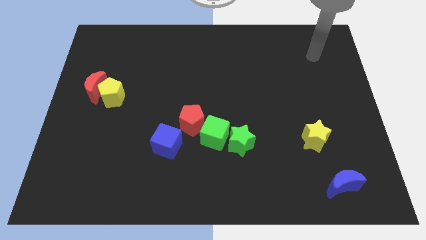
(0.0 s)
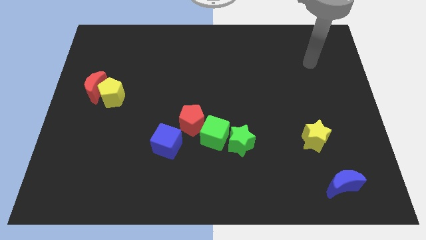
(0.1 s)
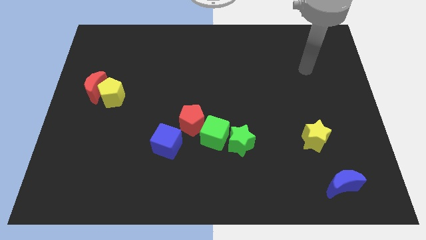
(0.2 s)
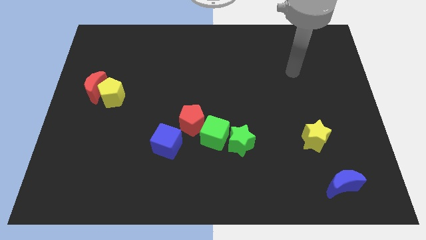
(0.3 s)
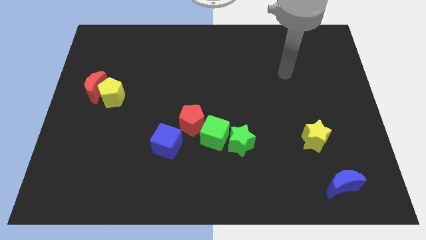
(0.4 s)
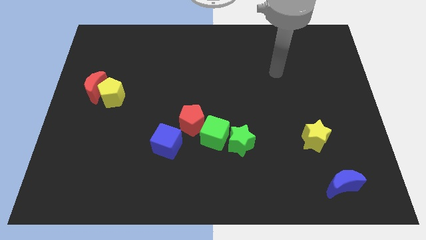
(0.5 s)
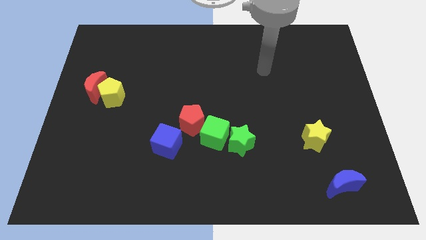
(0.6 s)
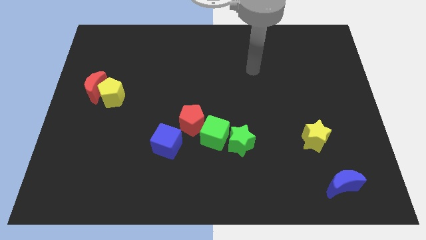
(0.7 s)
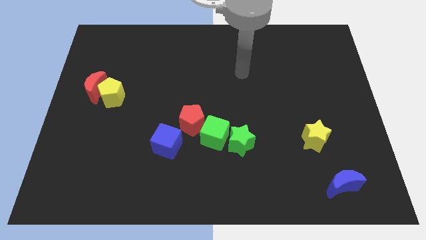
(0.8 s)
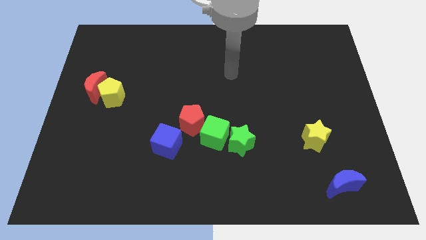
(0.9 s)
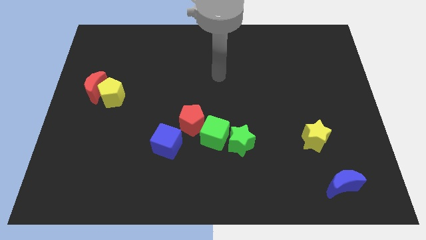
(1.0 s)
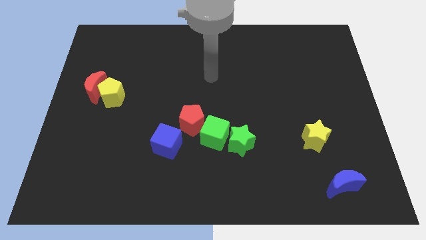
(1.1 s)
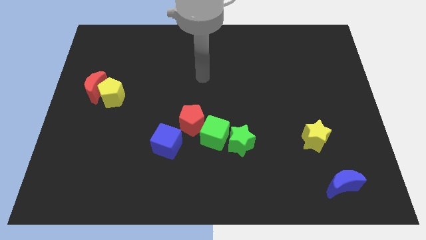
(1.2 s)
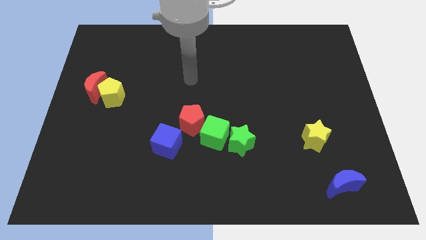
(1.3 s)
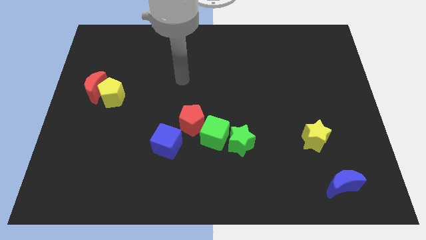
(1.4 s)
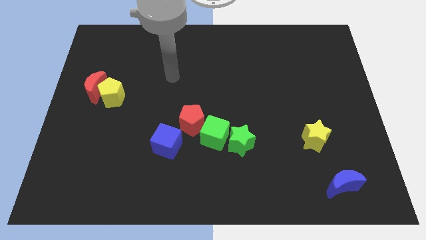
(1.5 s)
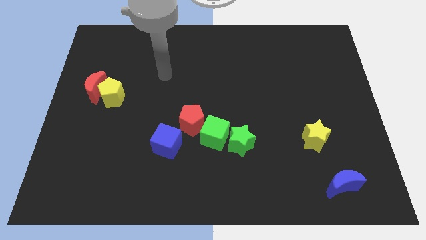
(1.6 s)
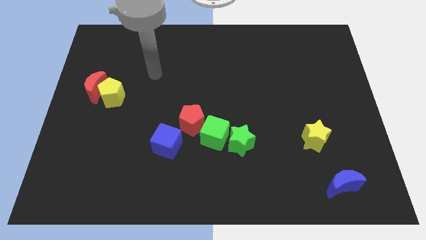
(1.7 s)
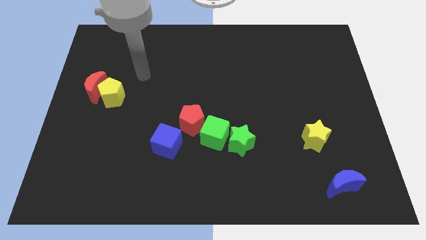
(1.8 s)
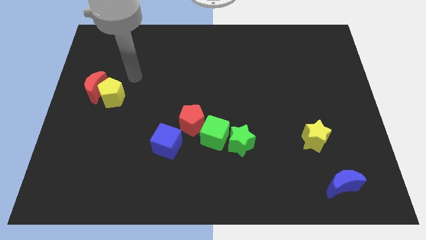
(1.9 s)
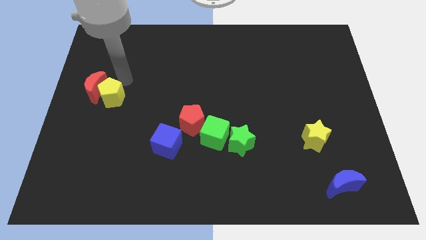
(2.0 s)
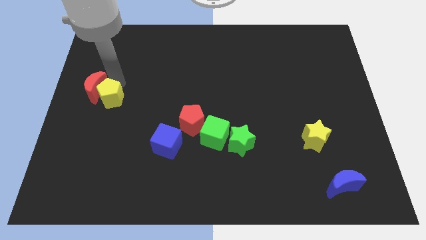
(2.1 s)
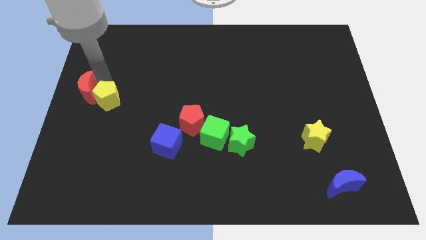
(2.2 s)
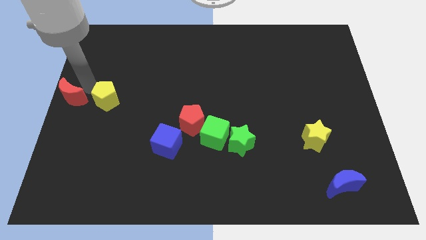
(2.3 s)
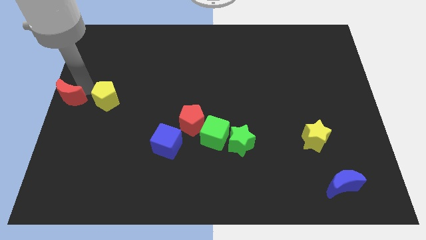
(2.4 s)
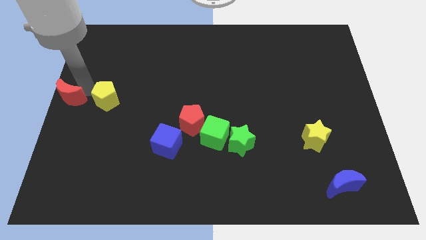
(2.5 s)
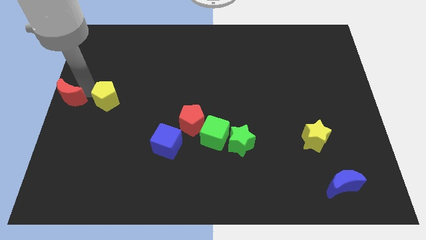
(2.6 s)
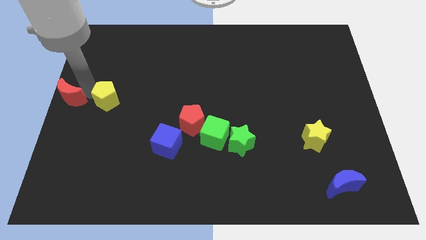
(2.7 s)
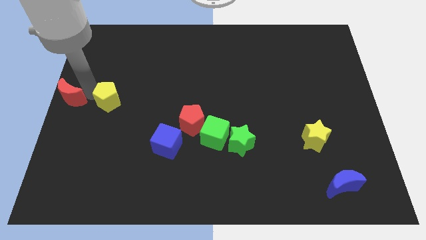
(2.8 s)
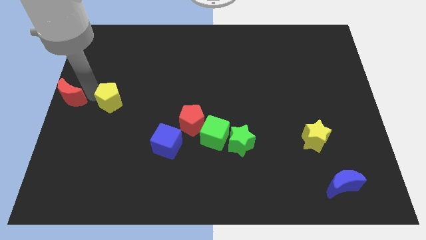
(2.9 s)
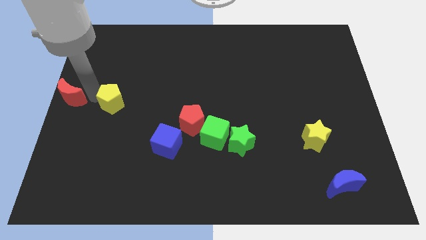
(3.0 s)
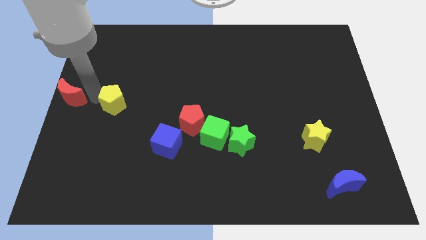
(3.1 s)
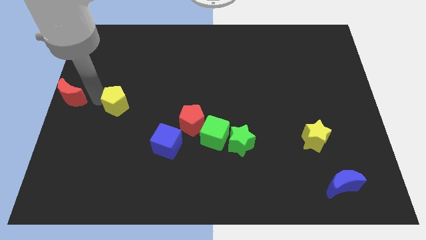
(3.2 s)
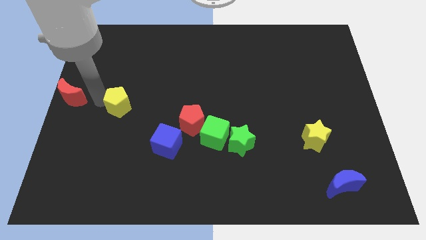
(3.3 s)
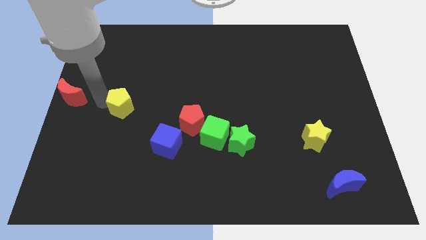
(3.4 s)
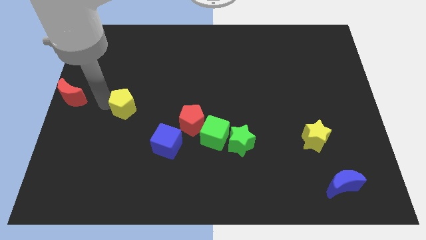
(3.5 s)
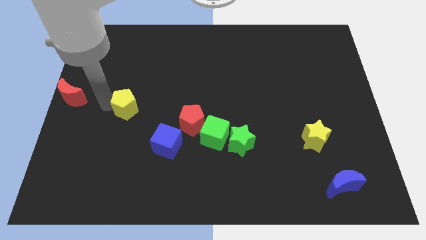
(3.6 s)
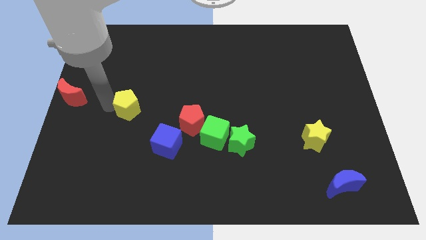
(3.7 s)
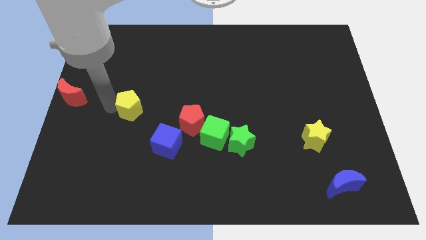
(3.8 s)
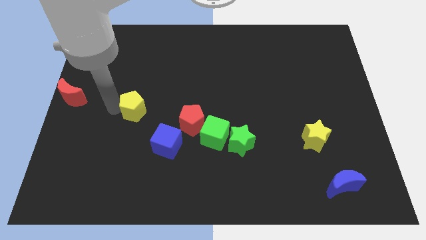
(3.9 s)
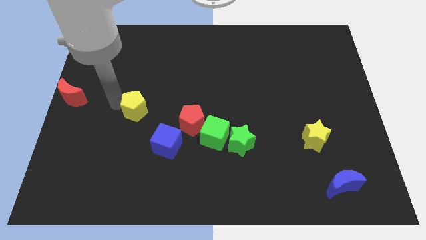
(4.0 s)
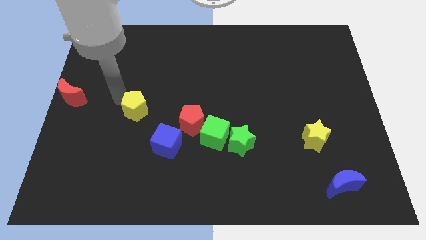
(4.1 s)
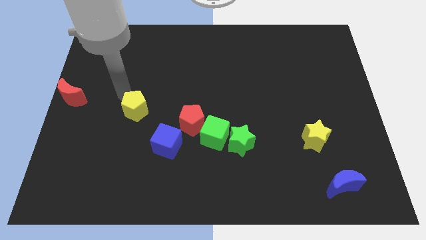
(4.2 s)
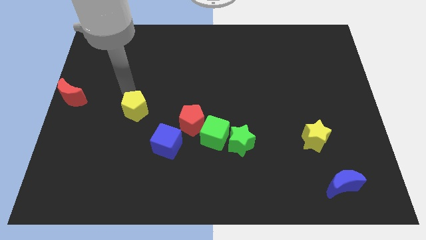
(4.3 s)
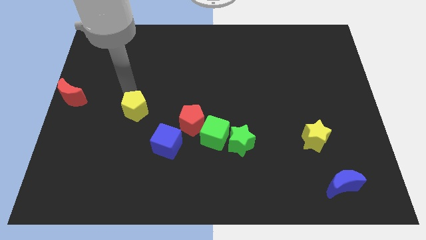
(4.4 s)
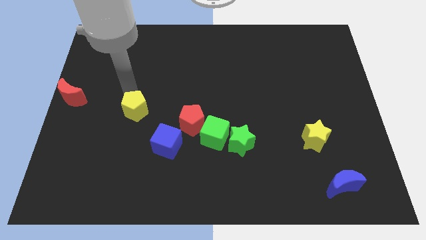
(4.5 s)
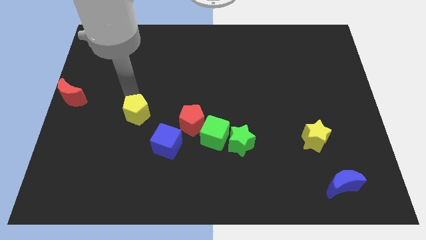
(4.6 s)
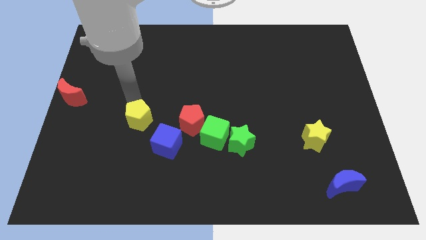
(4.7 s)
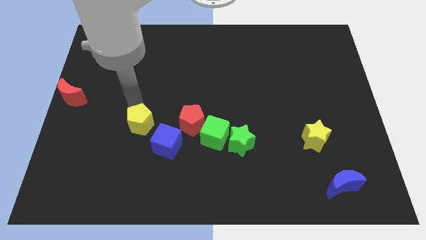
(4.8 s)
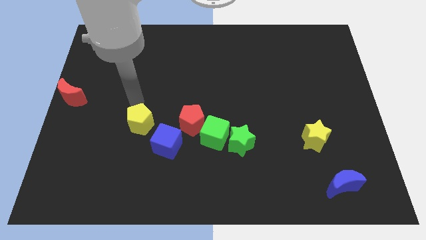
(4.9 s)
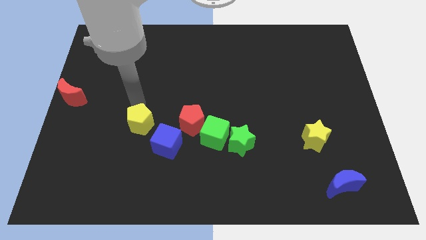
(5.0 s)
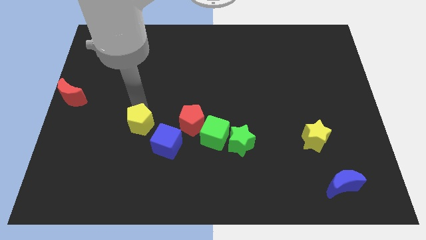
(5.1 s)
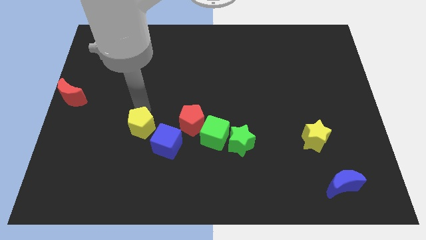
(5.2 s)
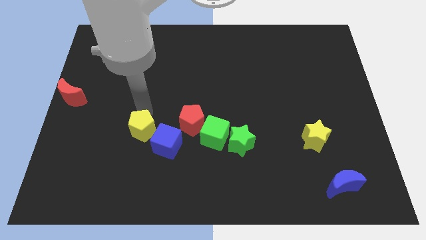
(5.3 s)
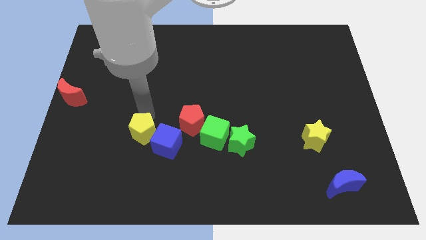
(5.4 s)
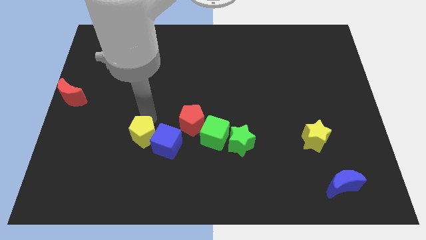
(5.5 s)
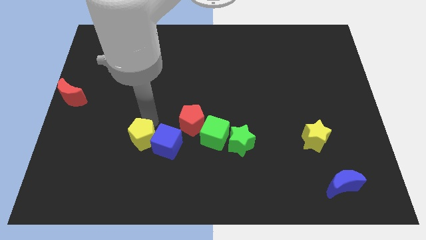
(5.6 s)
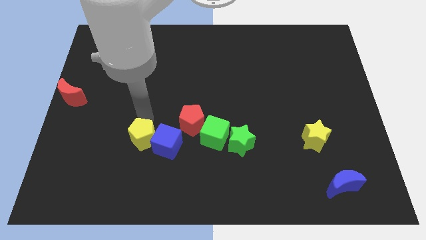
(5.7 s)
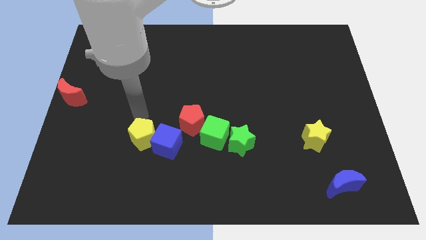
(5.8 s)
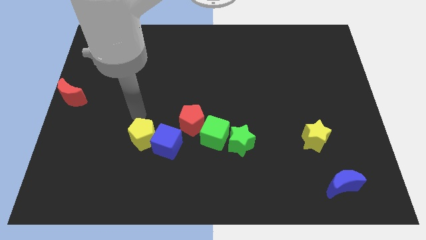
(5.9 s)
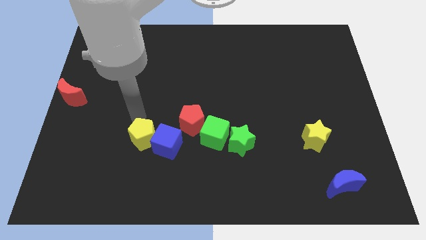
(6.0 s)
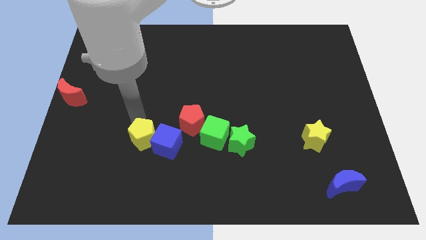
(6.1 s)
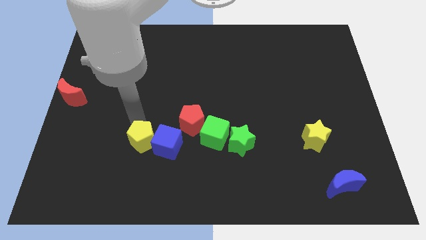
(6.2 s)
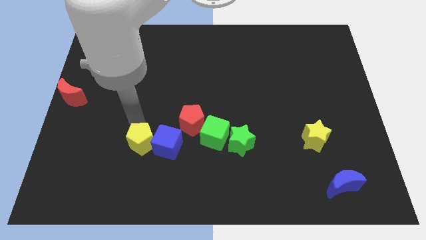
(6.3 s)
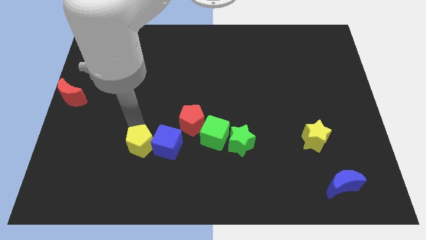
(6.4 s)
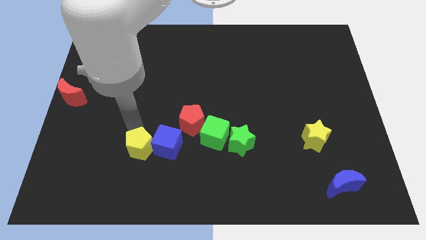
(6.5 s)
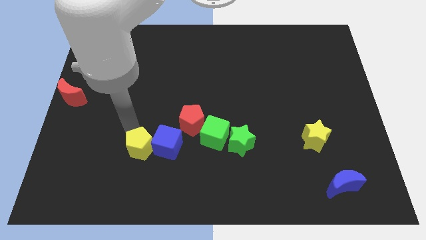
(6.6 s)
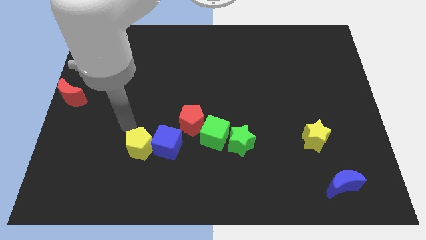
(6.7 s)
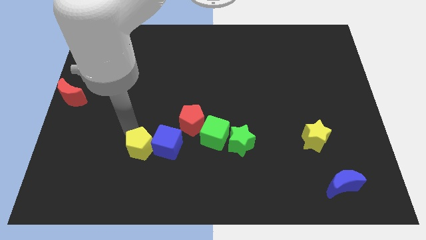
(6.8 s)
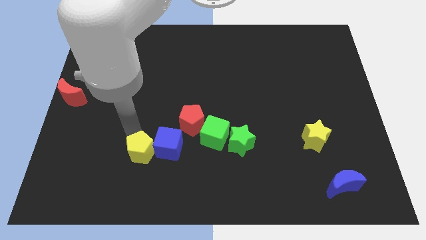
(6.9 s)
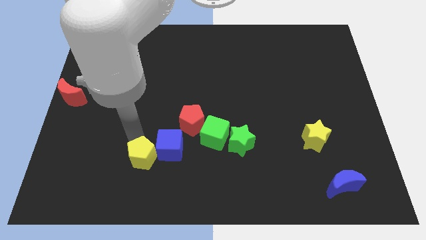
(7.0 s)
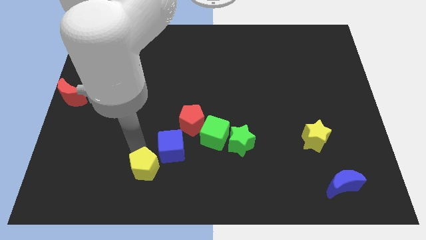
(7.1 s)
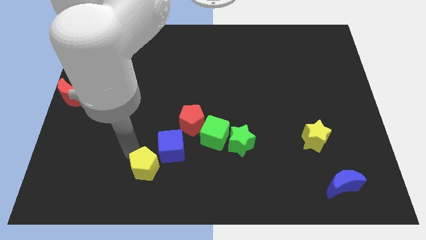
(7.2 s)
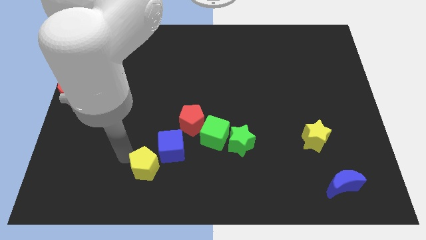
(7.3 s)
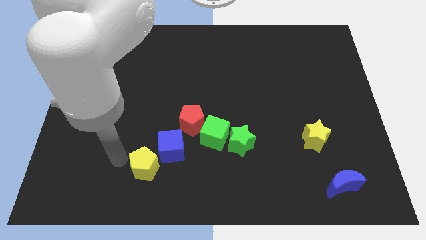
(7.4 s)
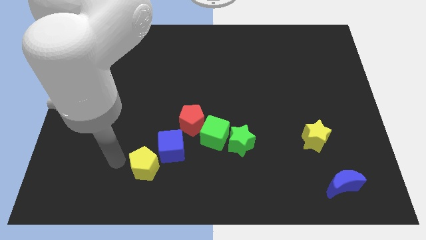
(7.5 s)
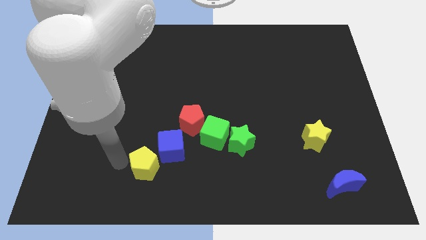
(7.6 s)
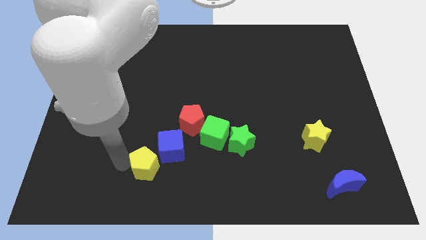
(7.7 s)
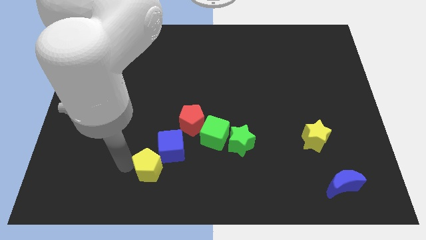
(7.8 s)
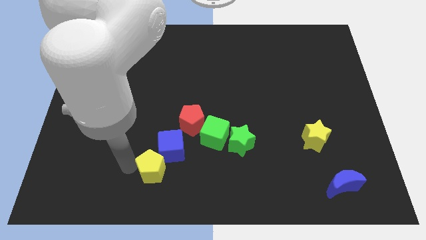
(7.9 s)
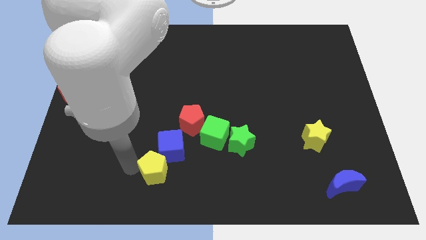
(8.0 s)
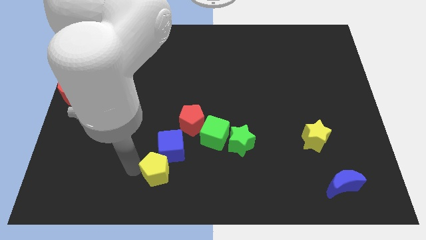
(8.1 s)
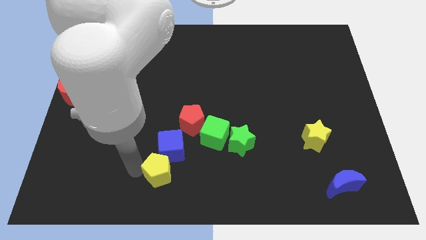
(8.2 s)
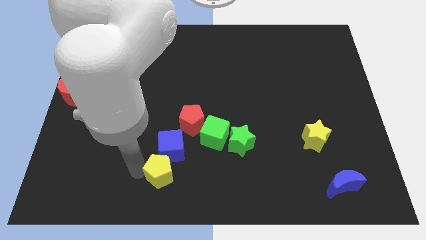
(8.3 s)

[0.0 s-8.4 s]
move the yellow pentagon to the bottom
